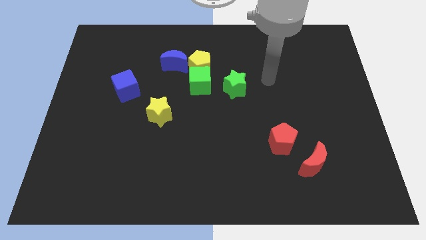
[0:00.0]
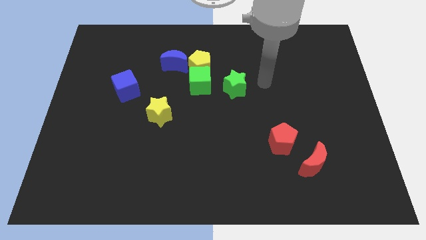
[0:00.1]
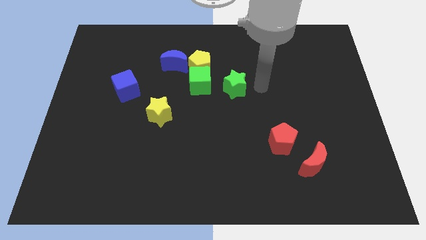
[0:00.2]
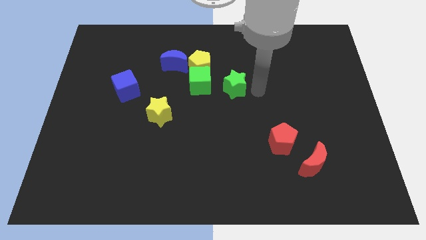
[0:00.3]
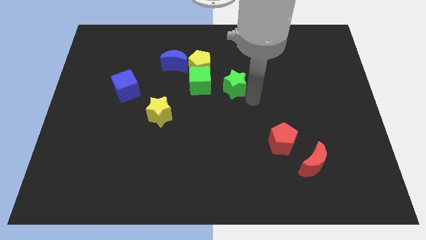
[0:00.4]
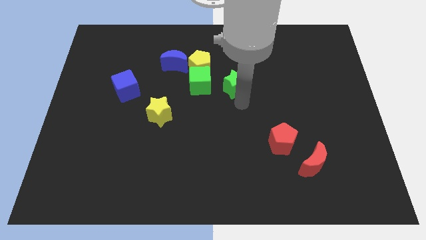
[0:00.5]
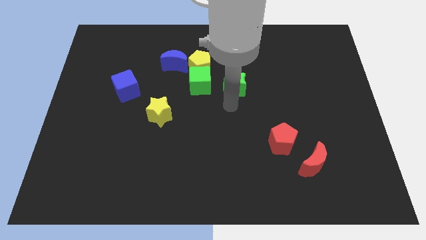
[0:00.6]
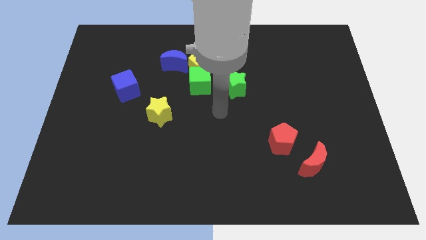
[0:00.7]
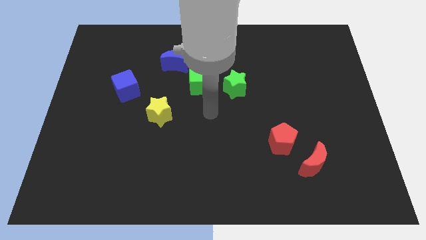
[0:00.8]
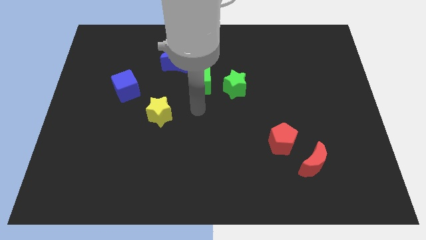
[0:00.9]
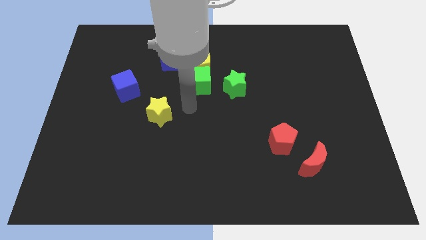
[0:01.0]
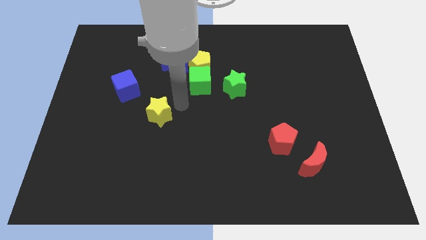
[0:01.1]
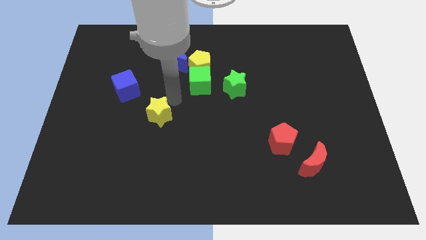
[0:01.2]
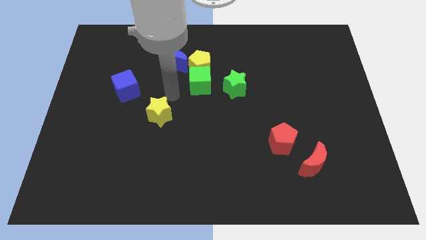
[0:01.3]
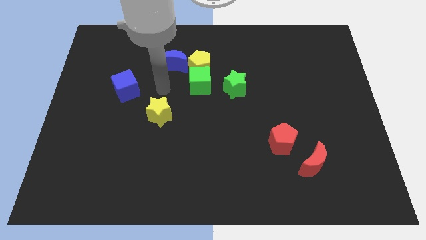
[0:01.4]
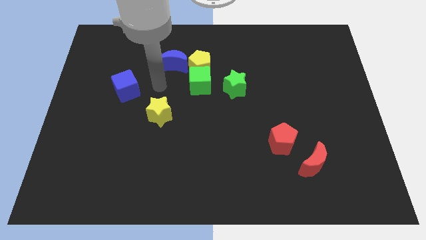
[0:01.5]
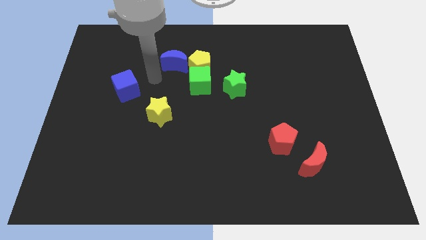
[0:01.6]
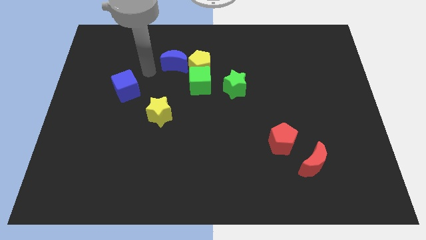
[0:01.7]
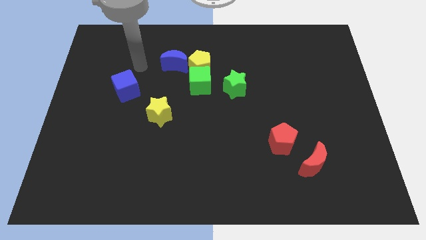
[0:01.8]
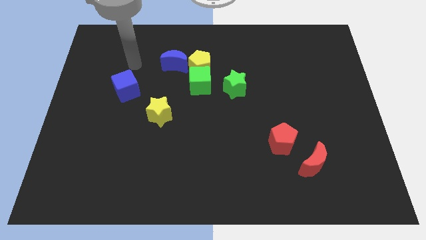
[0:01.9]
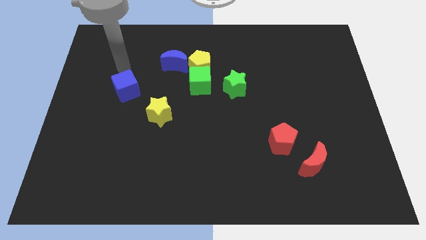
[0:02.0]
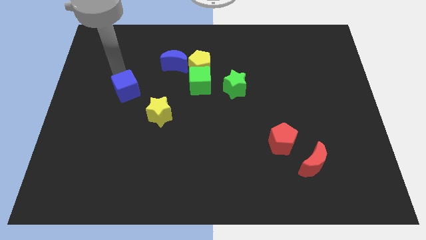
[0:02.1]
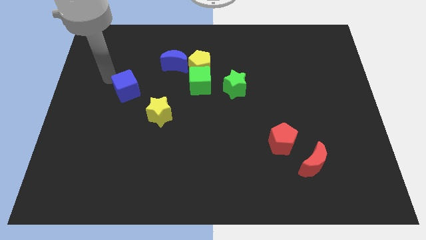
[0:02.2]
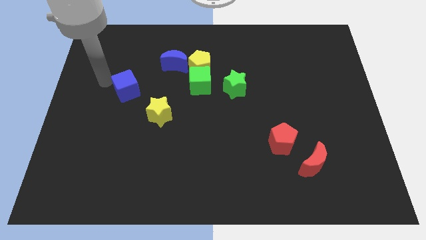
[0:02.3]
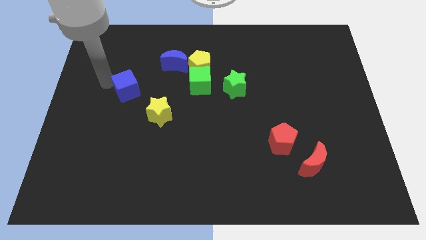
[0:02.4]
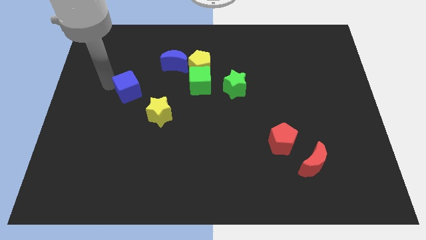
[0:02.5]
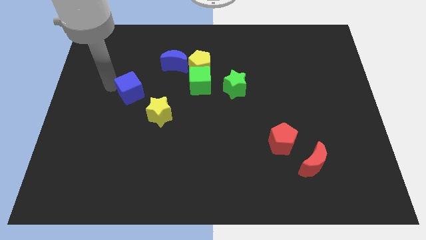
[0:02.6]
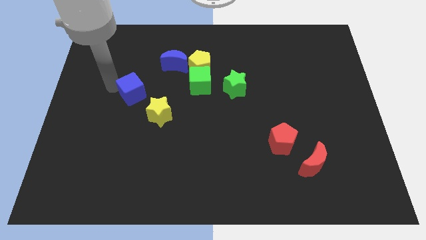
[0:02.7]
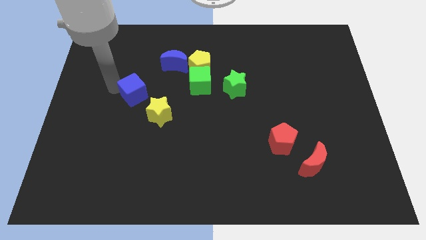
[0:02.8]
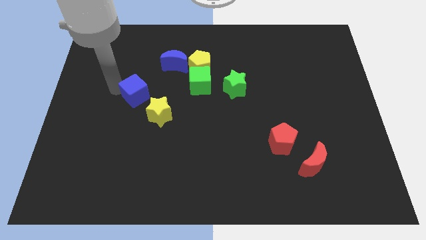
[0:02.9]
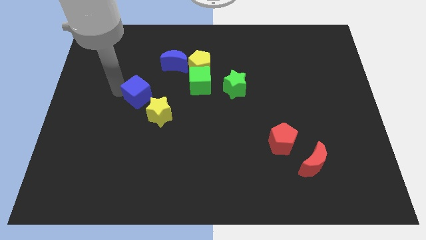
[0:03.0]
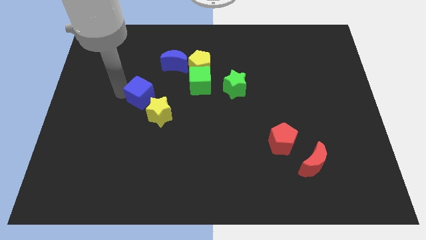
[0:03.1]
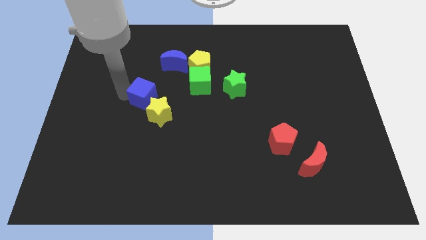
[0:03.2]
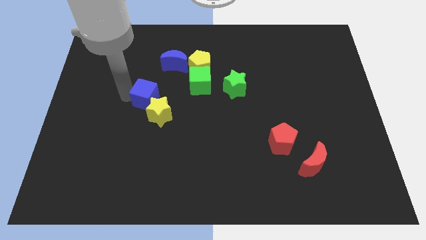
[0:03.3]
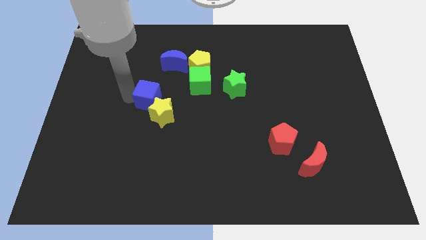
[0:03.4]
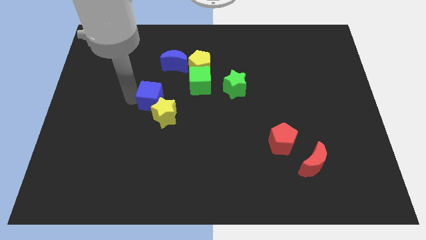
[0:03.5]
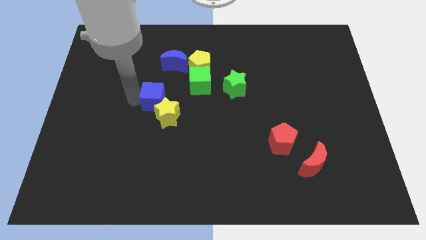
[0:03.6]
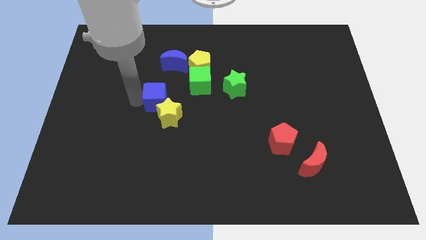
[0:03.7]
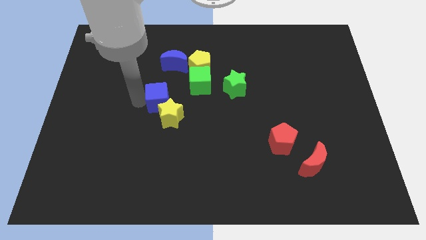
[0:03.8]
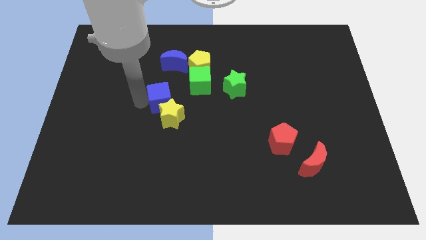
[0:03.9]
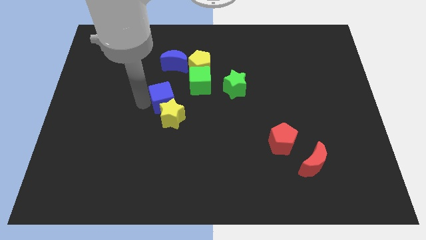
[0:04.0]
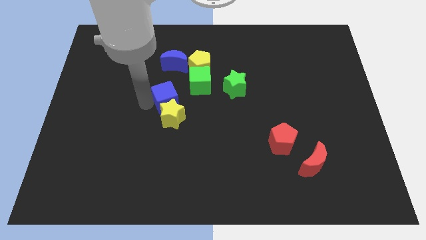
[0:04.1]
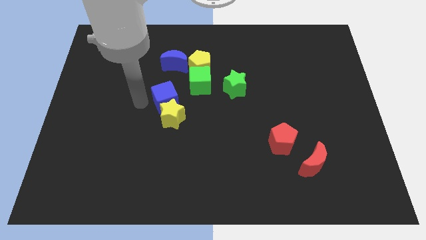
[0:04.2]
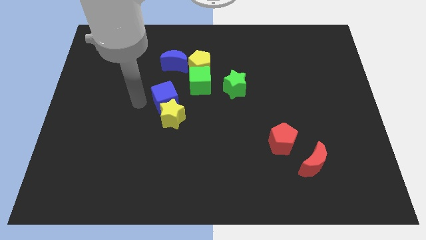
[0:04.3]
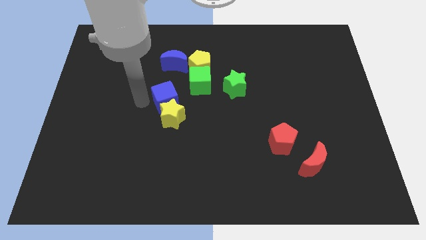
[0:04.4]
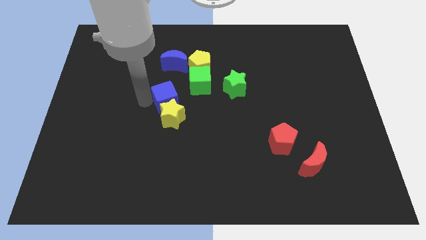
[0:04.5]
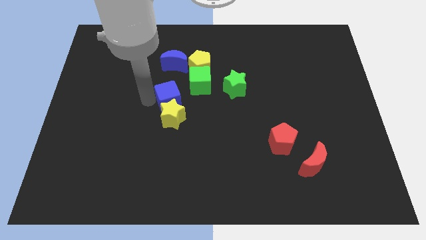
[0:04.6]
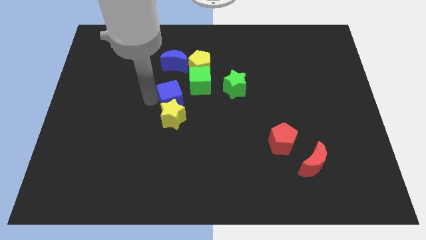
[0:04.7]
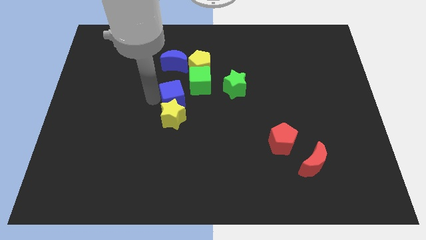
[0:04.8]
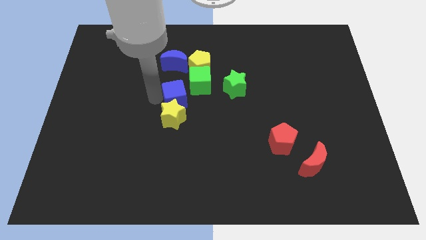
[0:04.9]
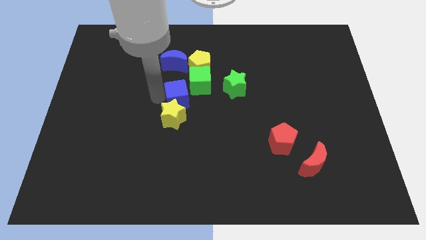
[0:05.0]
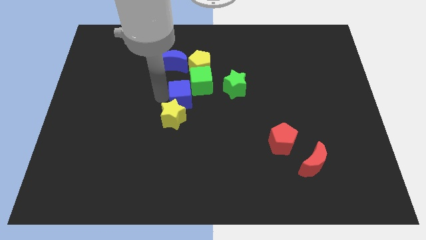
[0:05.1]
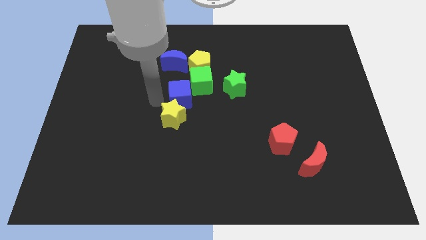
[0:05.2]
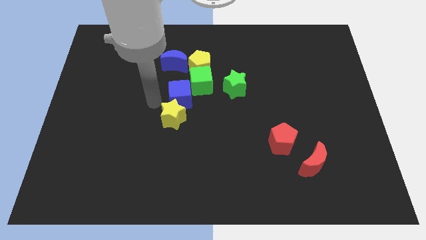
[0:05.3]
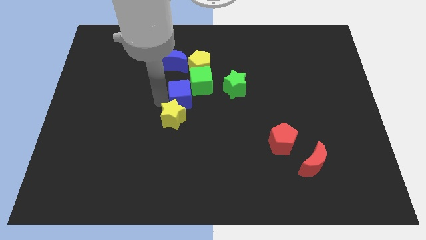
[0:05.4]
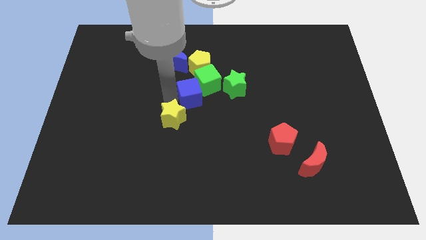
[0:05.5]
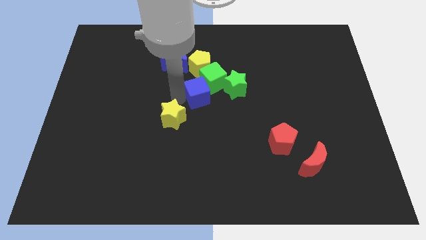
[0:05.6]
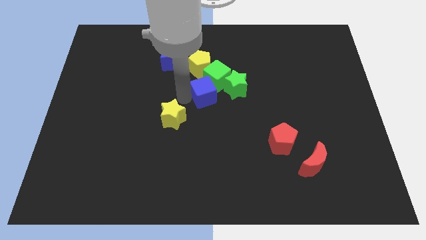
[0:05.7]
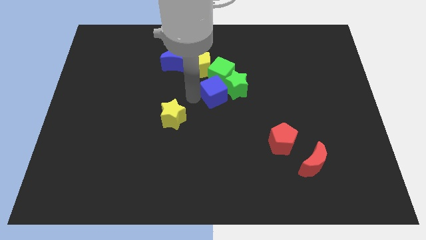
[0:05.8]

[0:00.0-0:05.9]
slide the blue cube towards the green star
